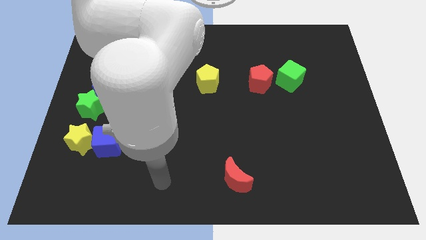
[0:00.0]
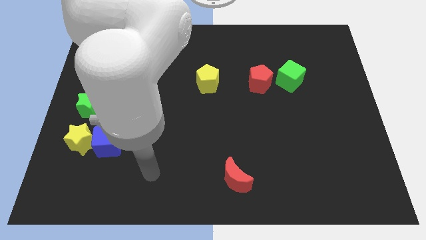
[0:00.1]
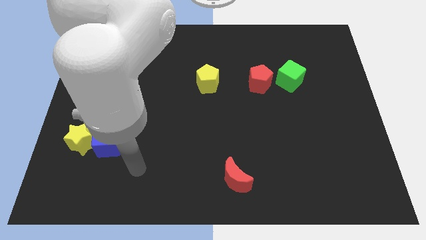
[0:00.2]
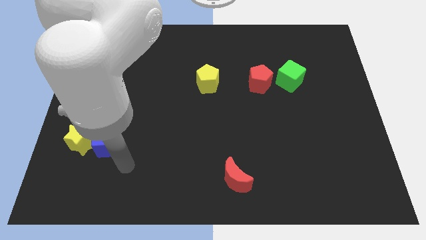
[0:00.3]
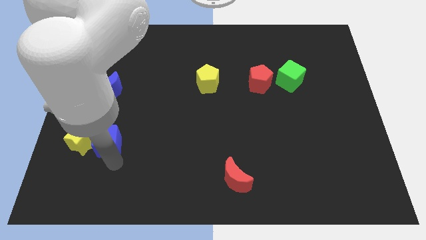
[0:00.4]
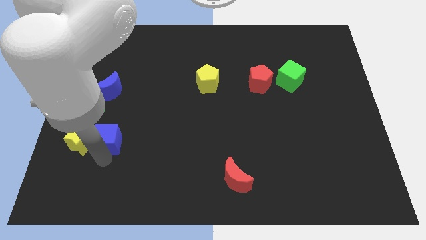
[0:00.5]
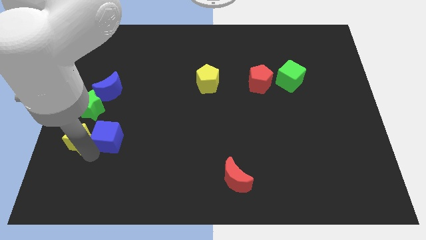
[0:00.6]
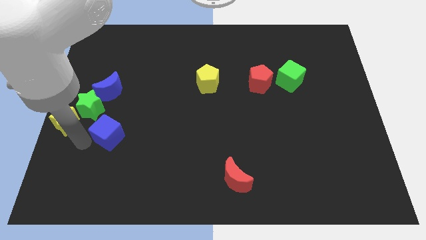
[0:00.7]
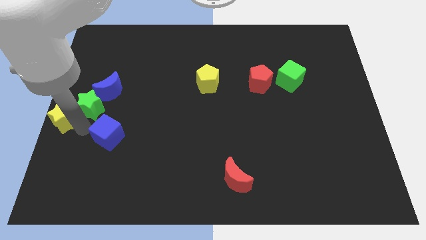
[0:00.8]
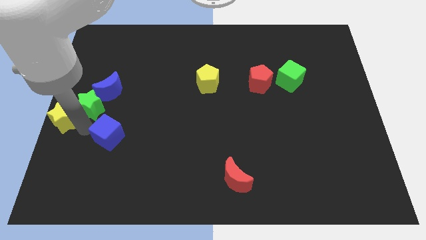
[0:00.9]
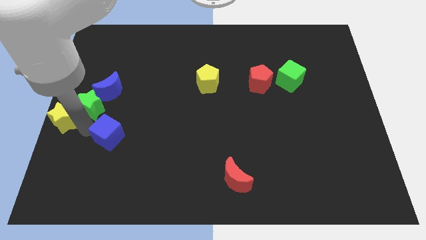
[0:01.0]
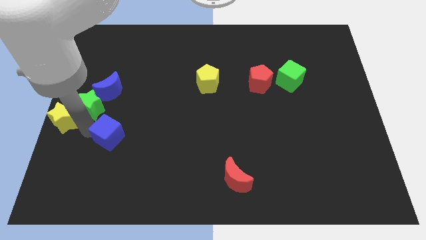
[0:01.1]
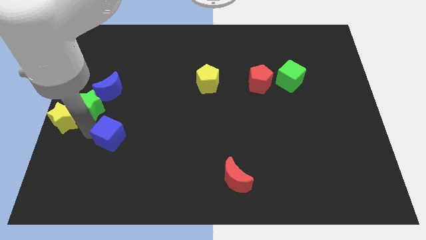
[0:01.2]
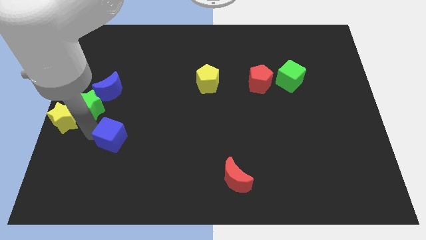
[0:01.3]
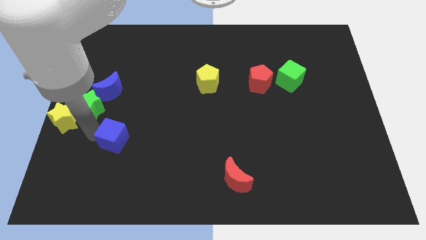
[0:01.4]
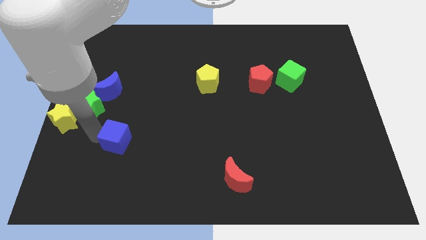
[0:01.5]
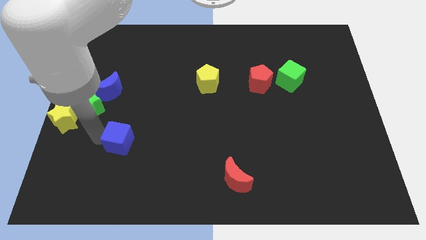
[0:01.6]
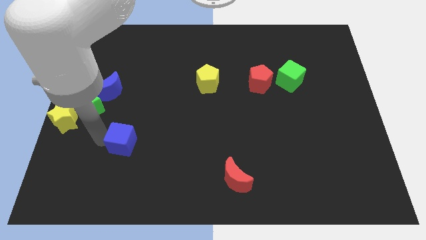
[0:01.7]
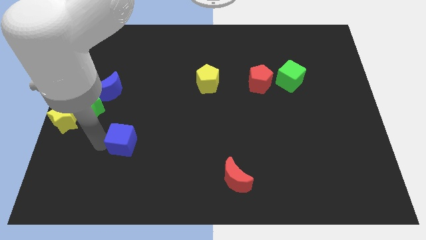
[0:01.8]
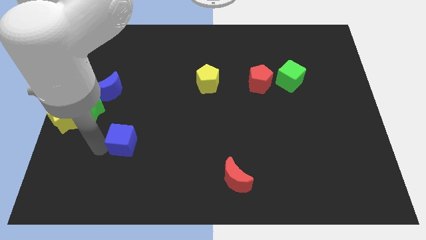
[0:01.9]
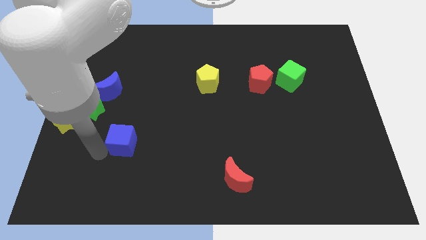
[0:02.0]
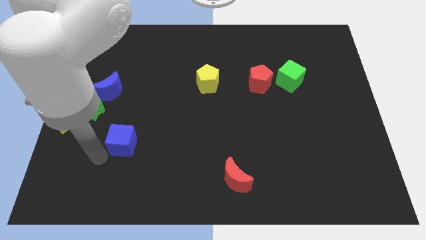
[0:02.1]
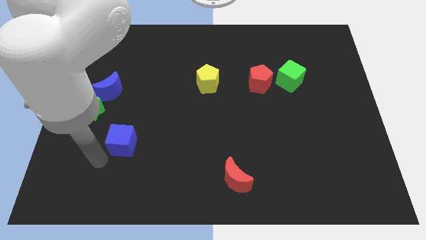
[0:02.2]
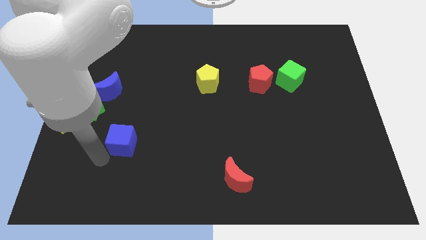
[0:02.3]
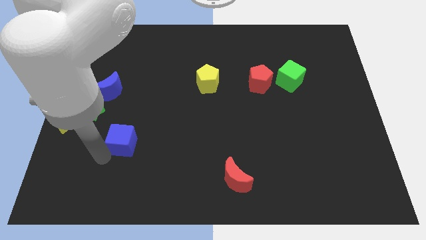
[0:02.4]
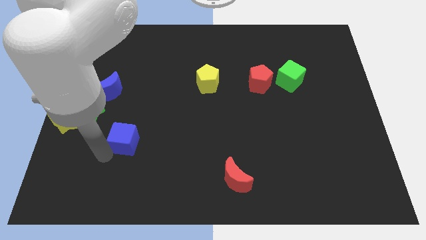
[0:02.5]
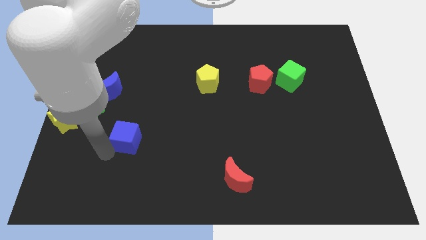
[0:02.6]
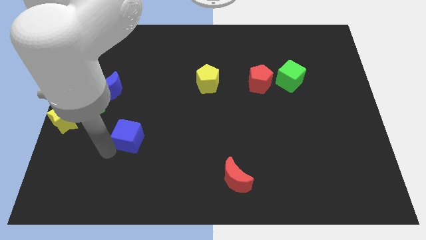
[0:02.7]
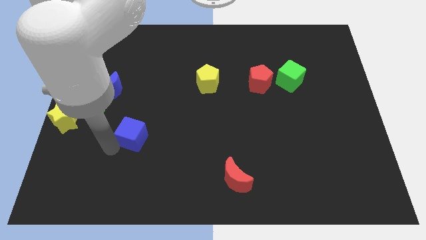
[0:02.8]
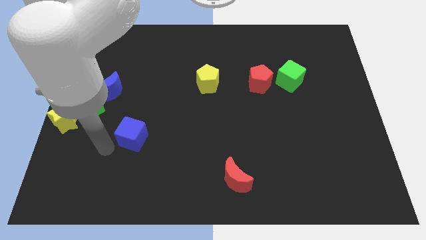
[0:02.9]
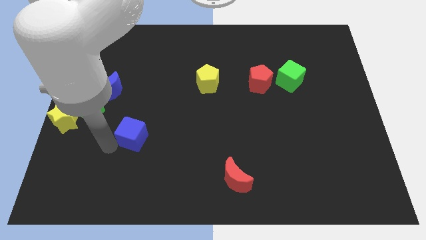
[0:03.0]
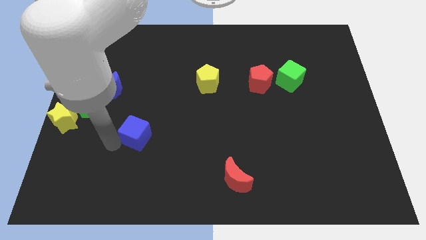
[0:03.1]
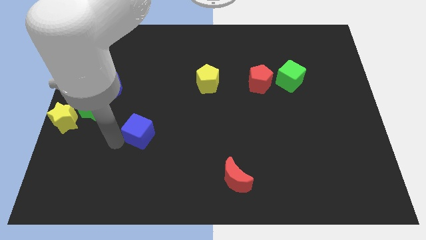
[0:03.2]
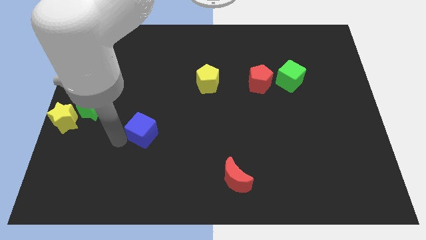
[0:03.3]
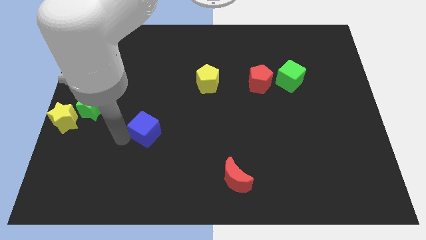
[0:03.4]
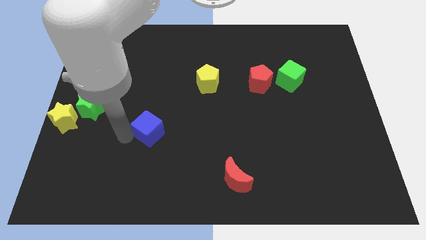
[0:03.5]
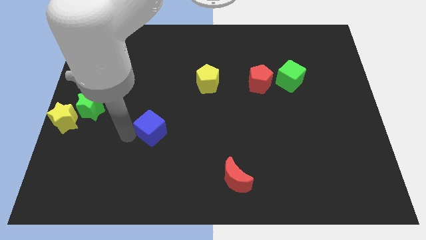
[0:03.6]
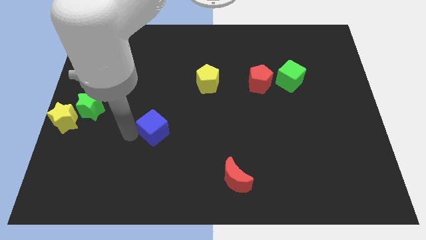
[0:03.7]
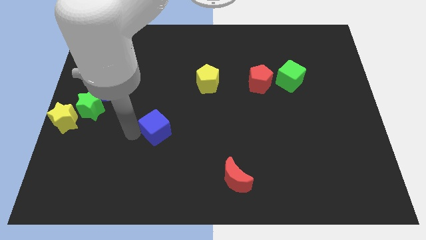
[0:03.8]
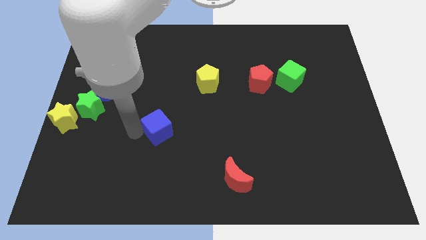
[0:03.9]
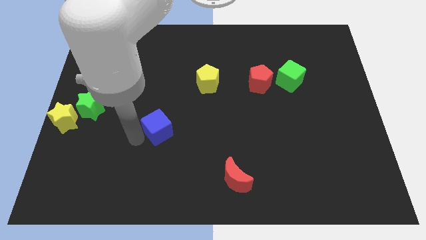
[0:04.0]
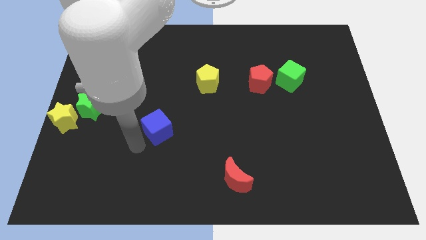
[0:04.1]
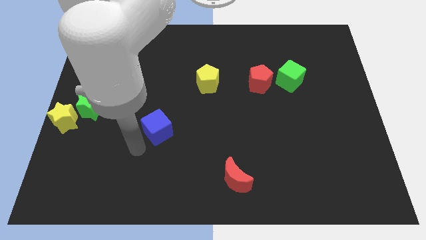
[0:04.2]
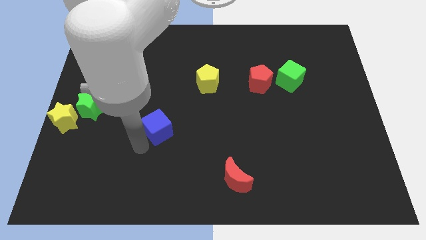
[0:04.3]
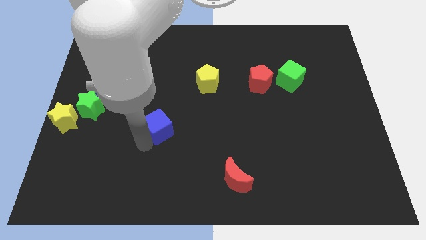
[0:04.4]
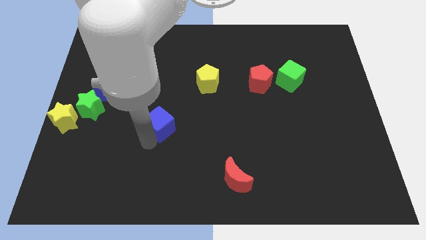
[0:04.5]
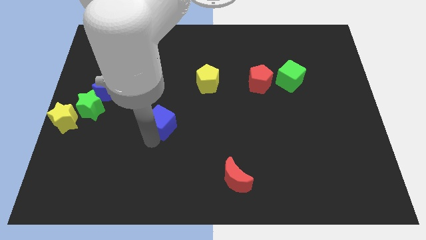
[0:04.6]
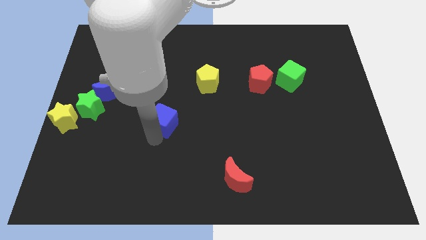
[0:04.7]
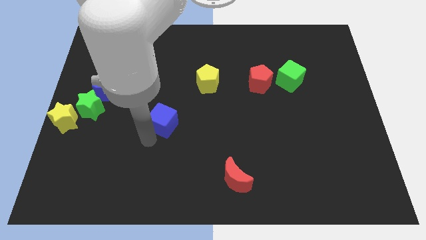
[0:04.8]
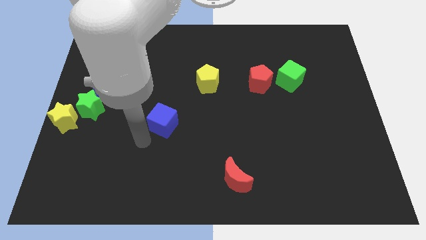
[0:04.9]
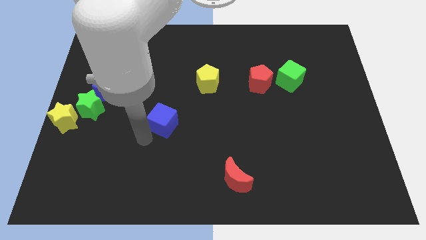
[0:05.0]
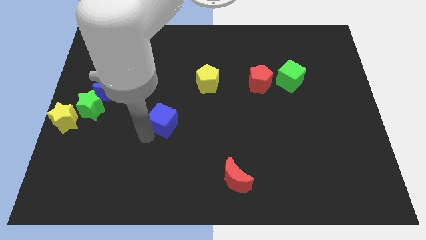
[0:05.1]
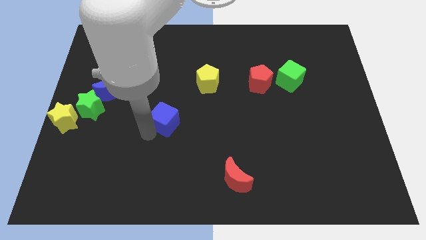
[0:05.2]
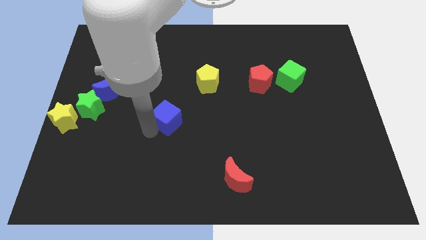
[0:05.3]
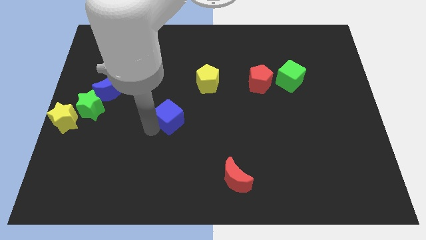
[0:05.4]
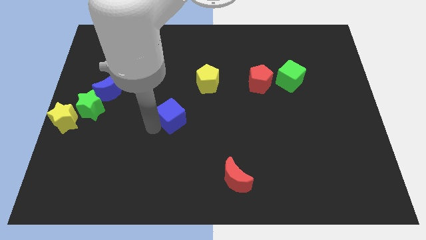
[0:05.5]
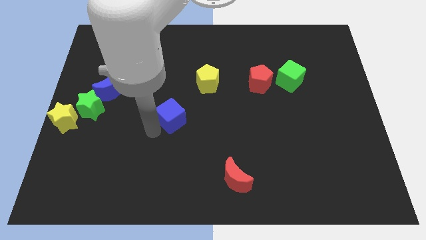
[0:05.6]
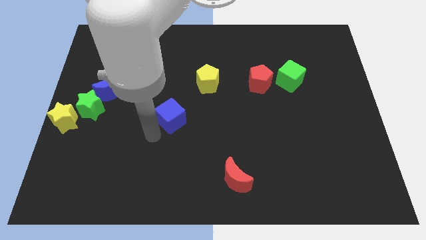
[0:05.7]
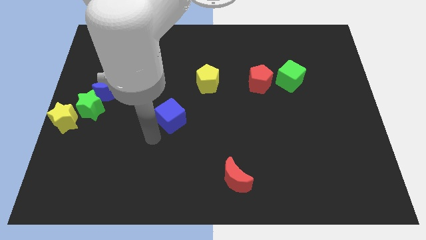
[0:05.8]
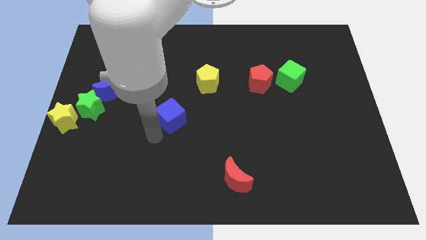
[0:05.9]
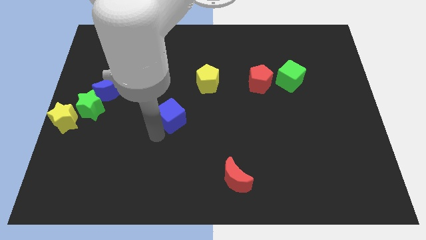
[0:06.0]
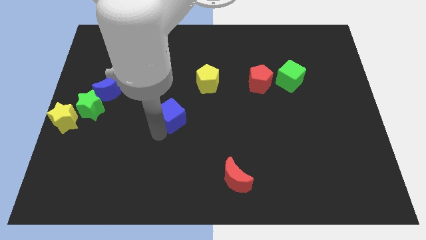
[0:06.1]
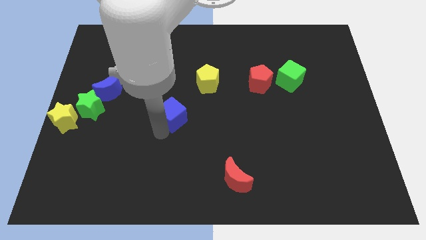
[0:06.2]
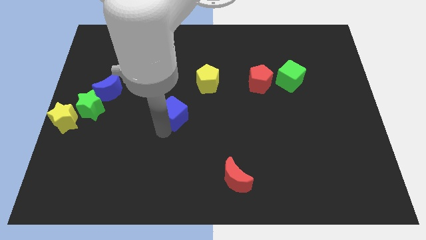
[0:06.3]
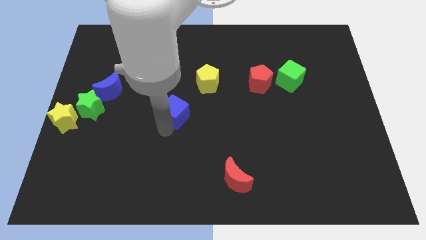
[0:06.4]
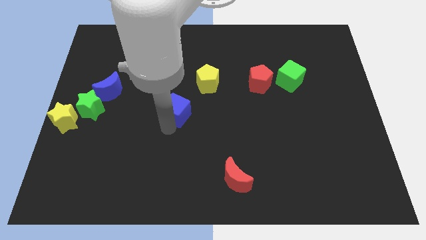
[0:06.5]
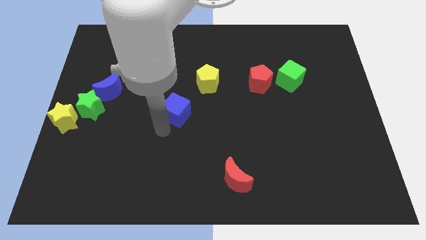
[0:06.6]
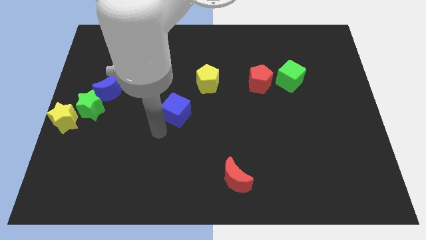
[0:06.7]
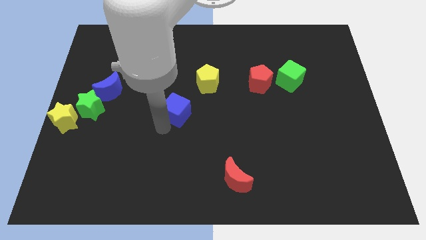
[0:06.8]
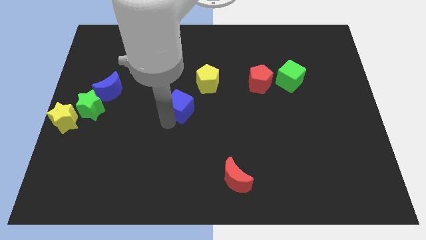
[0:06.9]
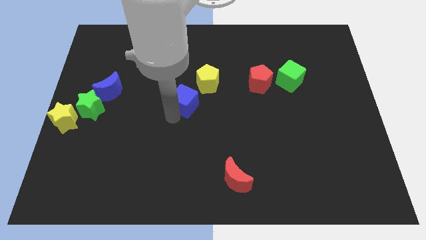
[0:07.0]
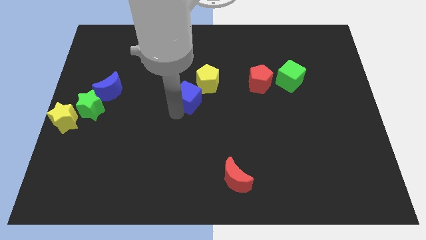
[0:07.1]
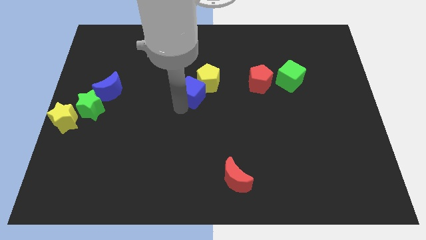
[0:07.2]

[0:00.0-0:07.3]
move the blue cube next to the yellow pentagon

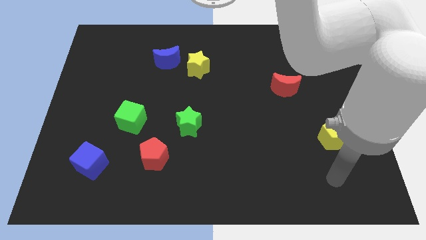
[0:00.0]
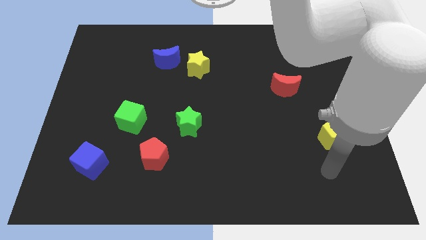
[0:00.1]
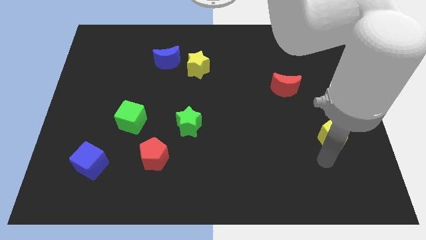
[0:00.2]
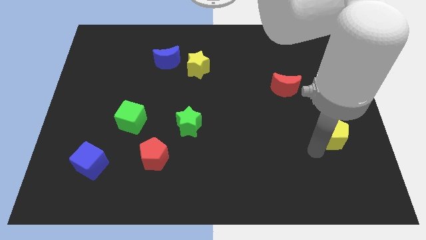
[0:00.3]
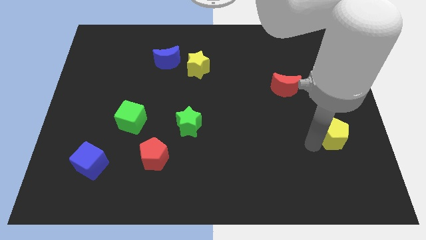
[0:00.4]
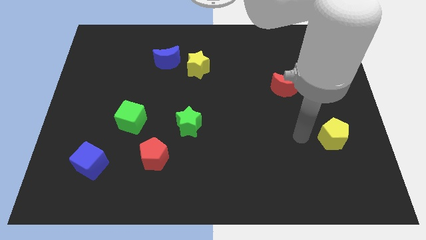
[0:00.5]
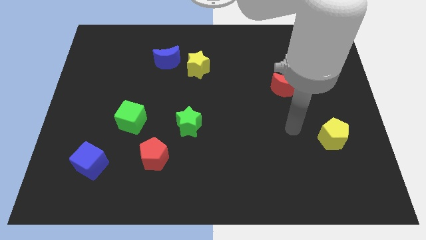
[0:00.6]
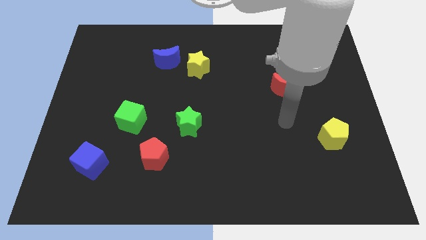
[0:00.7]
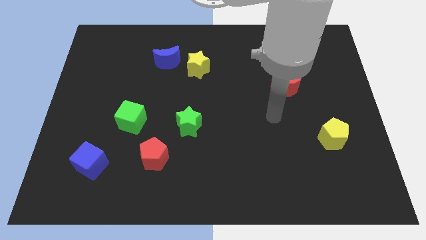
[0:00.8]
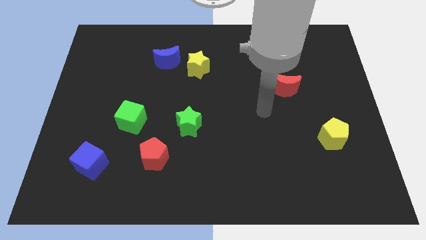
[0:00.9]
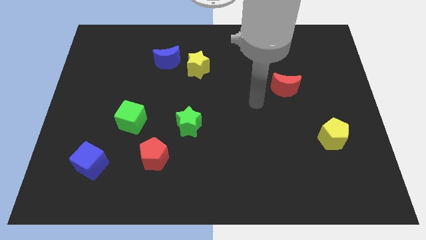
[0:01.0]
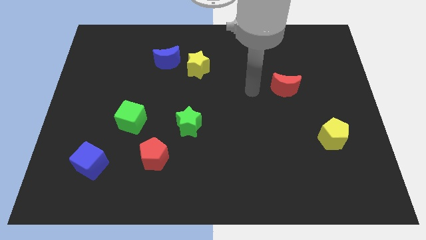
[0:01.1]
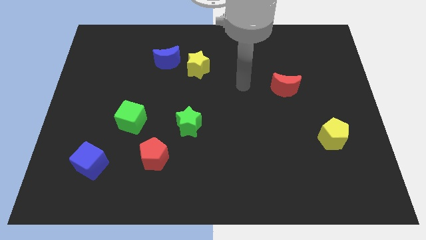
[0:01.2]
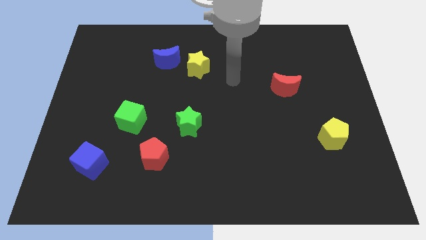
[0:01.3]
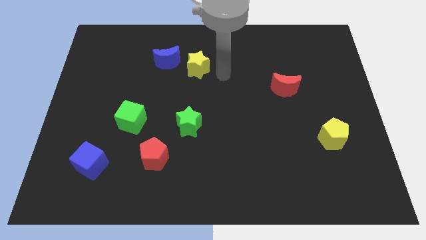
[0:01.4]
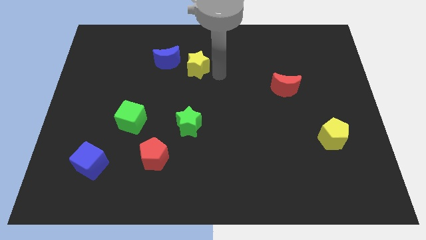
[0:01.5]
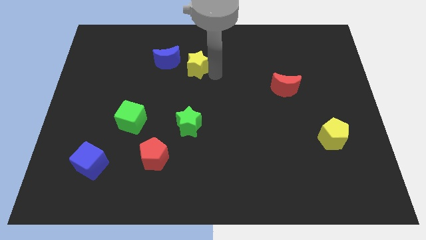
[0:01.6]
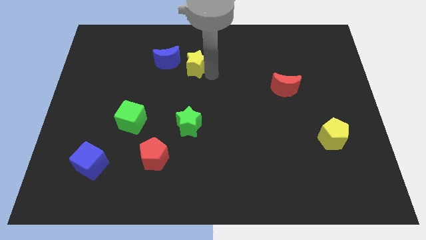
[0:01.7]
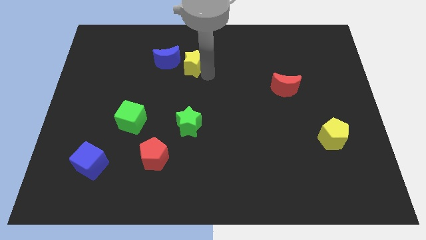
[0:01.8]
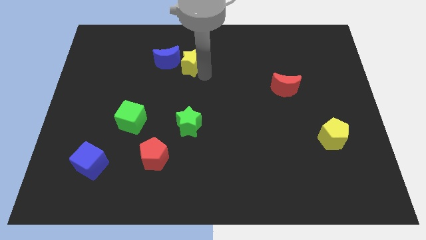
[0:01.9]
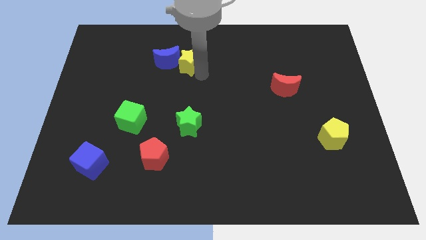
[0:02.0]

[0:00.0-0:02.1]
put the yellow star close to the blue moon
